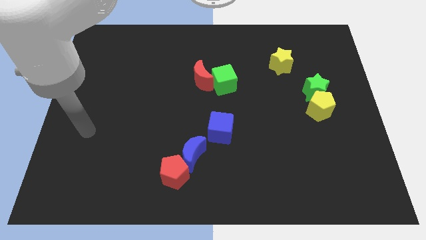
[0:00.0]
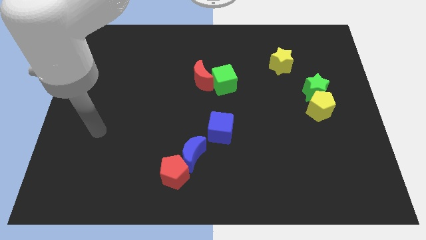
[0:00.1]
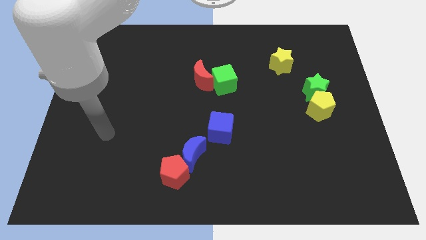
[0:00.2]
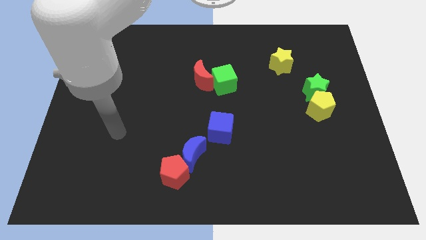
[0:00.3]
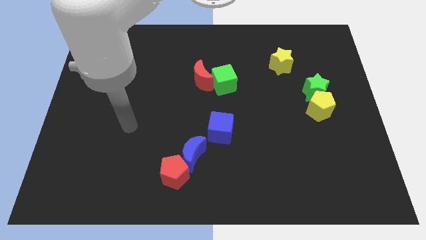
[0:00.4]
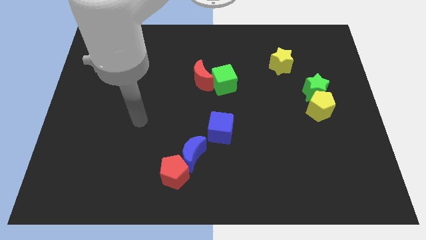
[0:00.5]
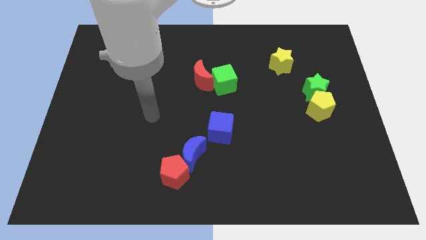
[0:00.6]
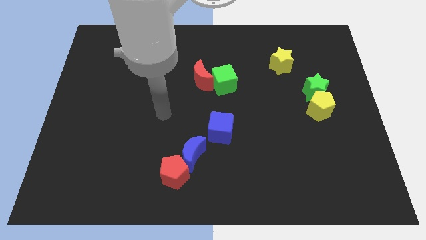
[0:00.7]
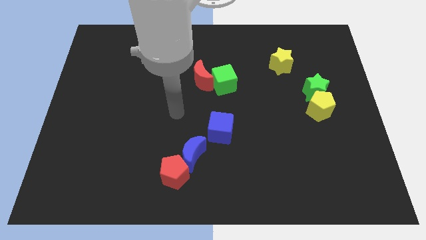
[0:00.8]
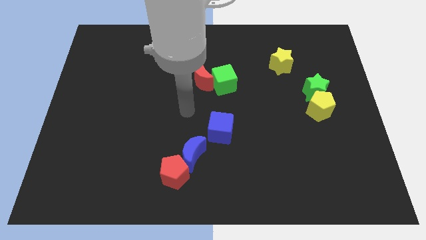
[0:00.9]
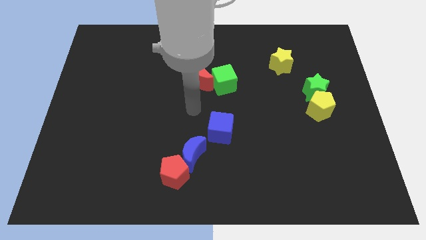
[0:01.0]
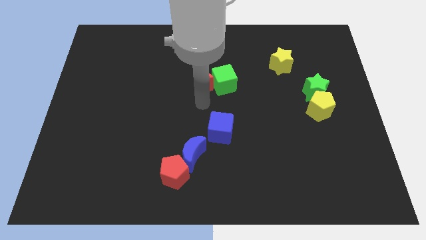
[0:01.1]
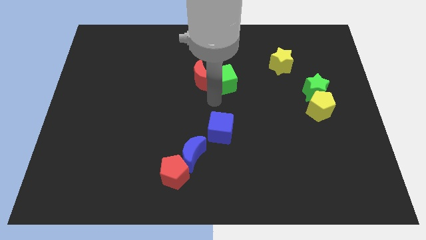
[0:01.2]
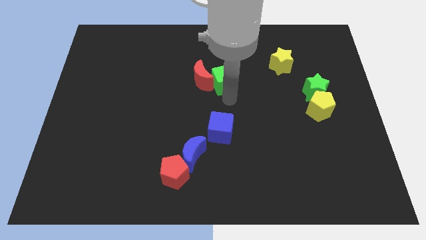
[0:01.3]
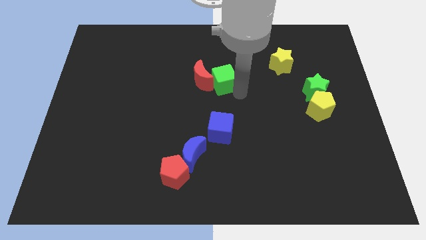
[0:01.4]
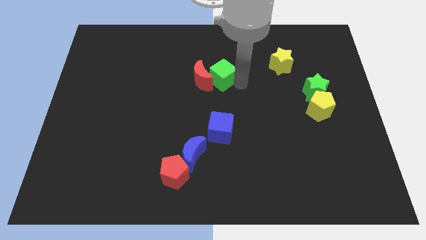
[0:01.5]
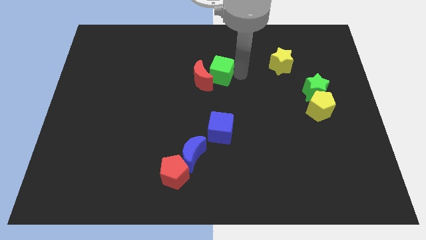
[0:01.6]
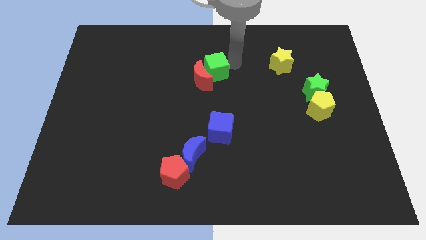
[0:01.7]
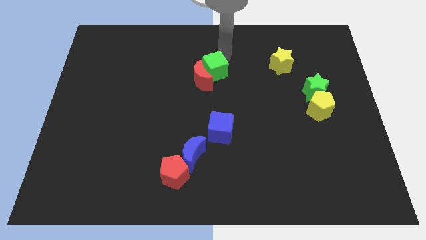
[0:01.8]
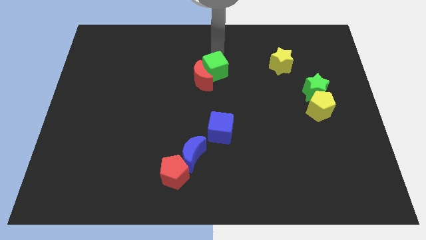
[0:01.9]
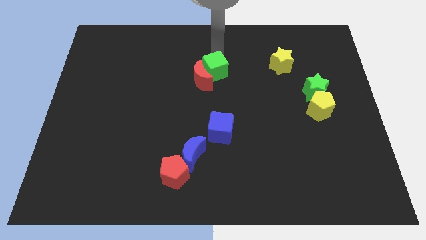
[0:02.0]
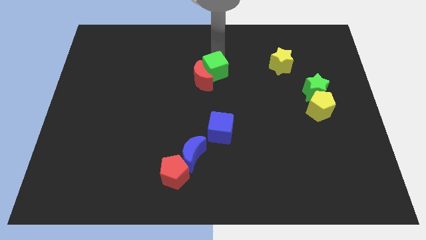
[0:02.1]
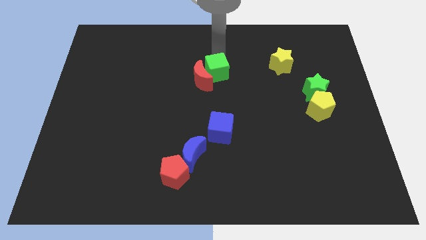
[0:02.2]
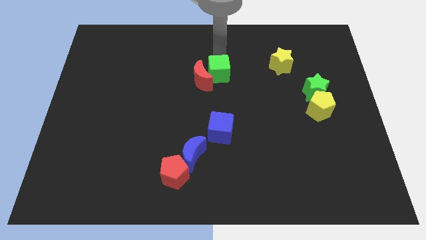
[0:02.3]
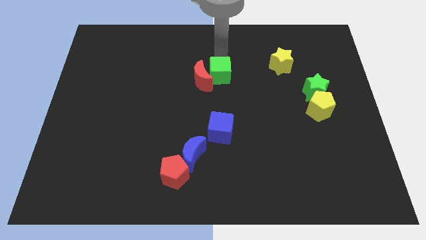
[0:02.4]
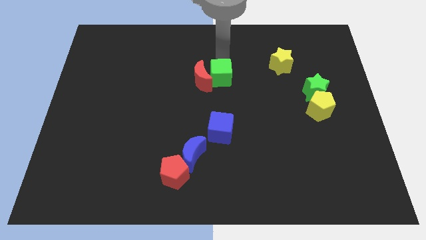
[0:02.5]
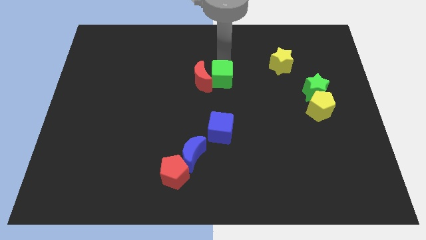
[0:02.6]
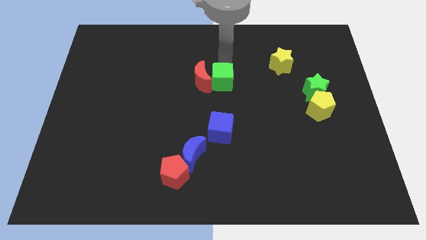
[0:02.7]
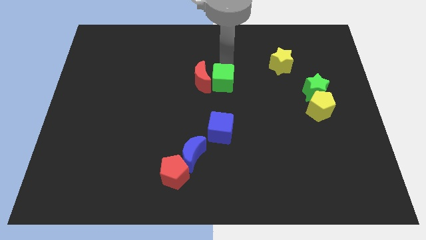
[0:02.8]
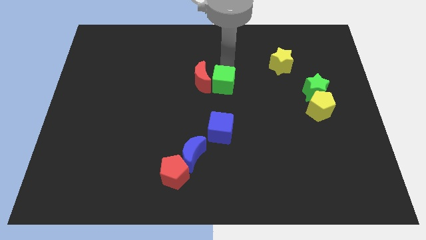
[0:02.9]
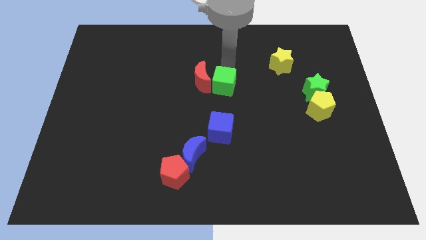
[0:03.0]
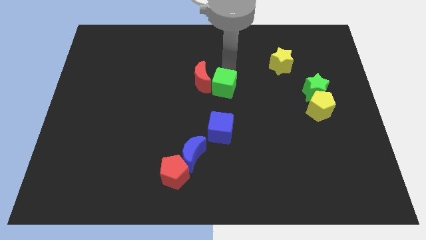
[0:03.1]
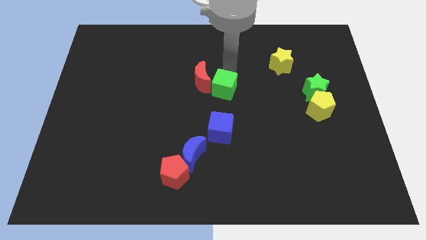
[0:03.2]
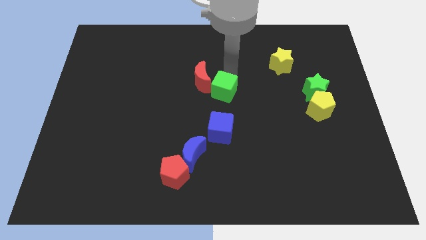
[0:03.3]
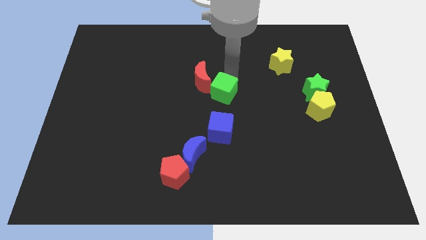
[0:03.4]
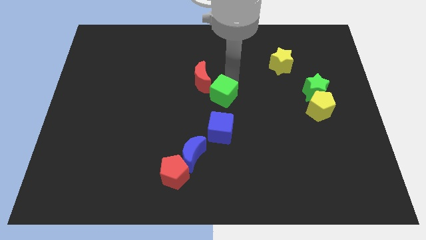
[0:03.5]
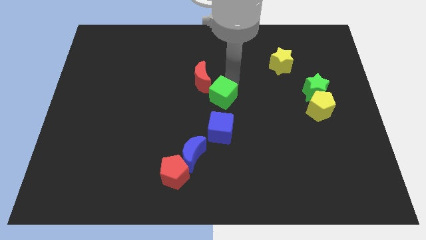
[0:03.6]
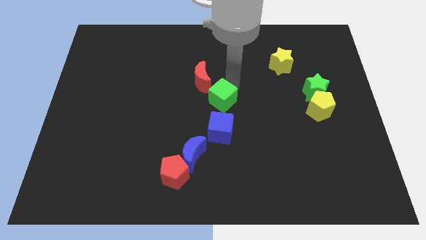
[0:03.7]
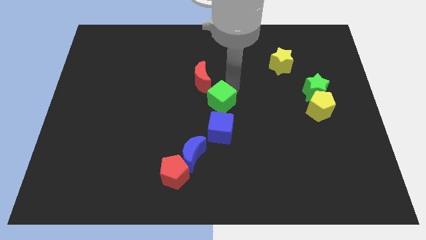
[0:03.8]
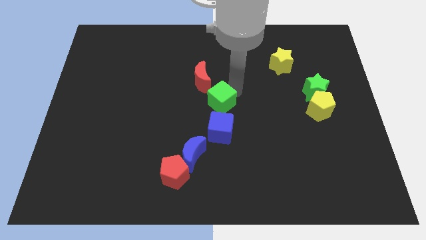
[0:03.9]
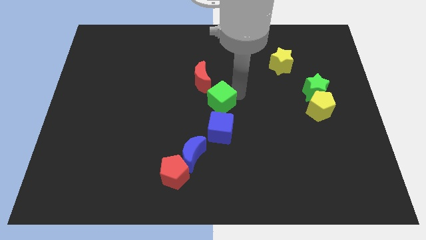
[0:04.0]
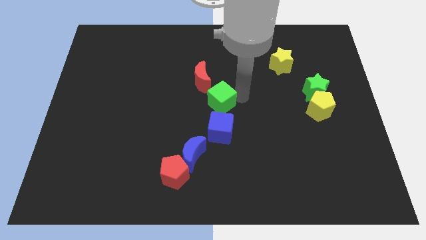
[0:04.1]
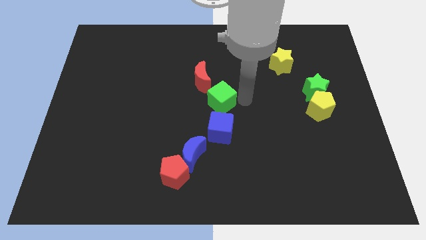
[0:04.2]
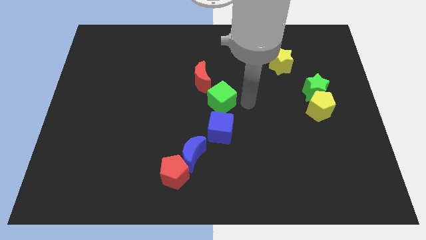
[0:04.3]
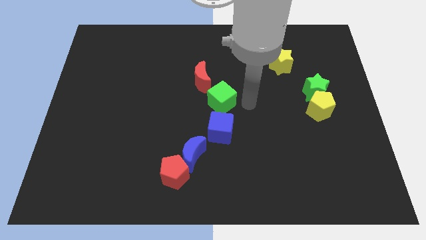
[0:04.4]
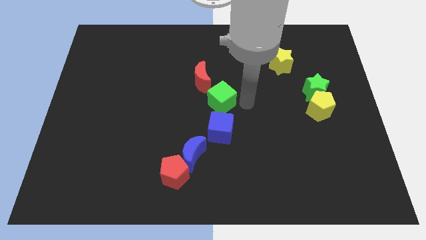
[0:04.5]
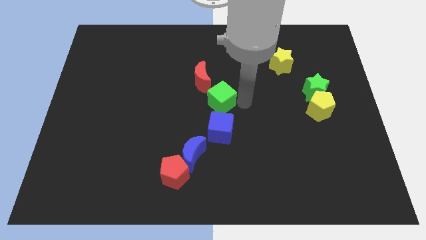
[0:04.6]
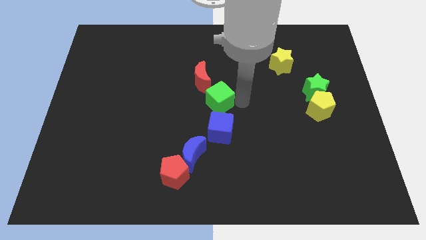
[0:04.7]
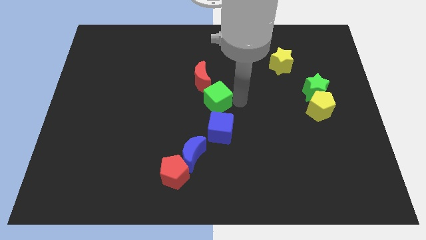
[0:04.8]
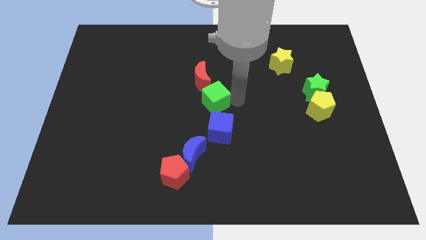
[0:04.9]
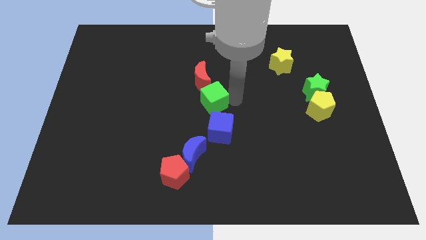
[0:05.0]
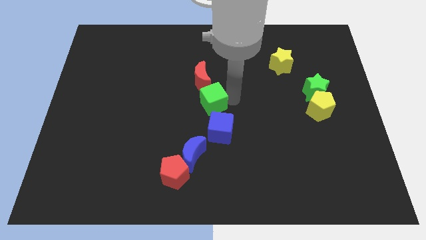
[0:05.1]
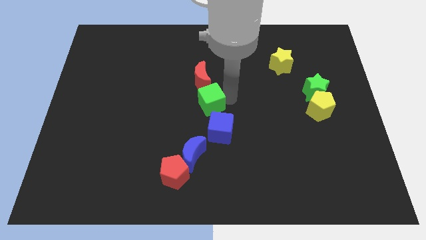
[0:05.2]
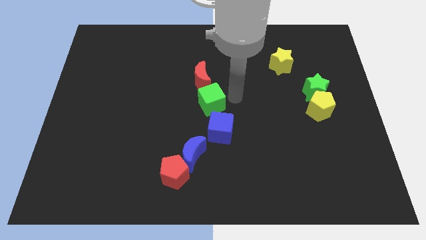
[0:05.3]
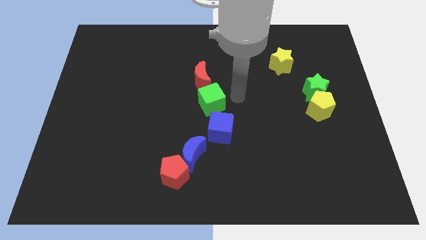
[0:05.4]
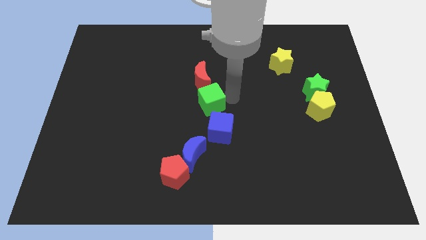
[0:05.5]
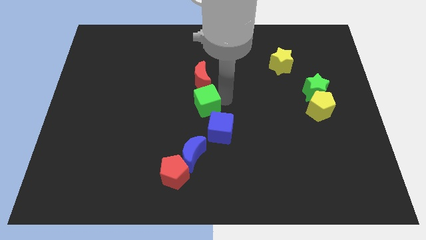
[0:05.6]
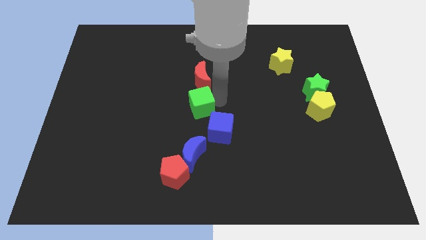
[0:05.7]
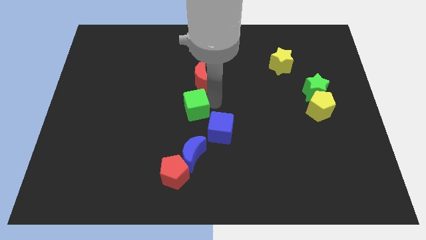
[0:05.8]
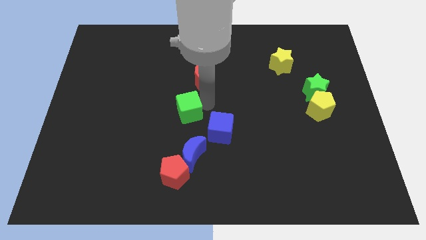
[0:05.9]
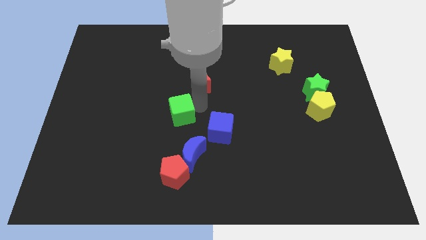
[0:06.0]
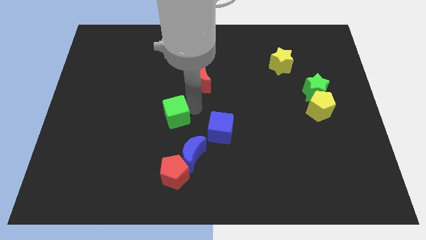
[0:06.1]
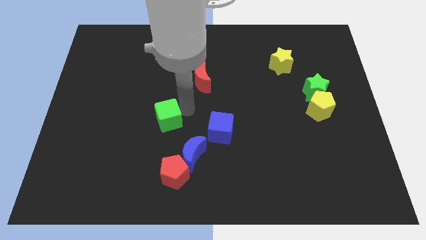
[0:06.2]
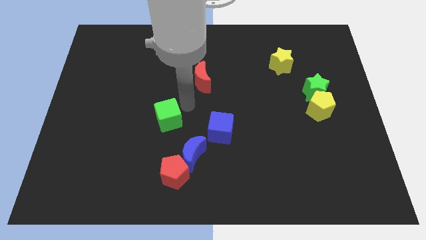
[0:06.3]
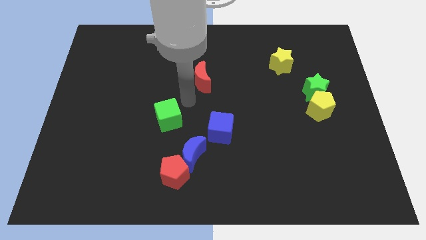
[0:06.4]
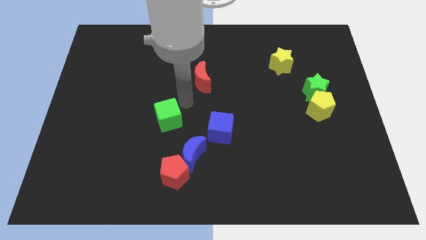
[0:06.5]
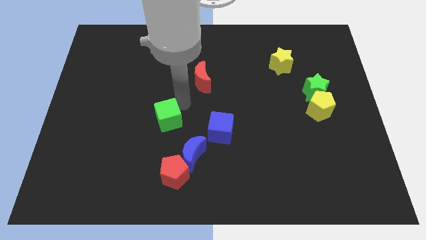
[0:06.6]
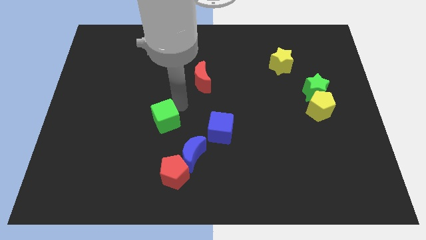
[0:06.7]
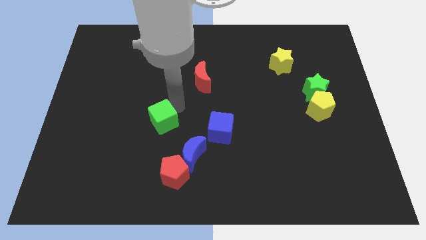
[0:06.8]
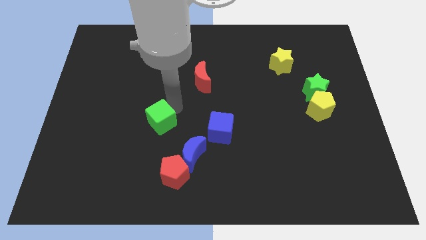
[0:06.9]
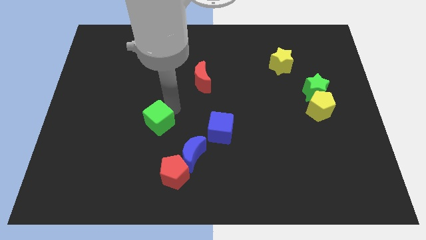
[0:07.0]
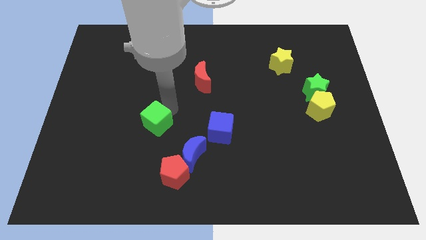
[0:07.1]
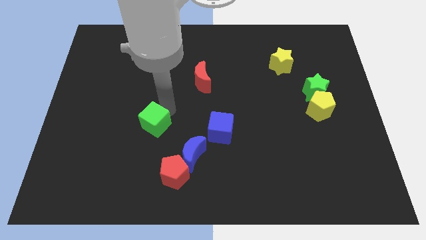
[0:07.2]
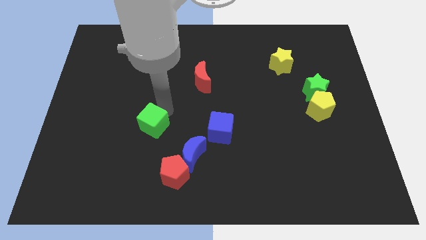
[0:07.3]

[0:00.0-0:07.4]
push the green cube down and left

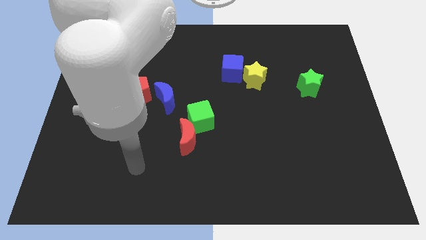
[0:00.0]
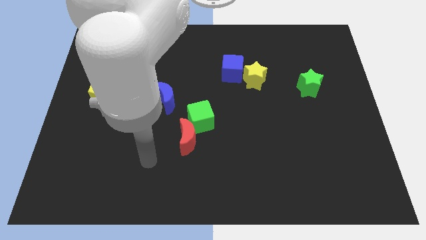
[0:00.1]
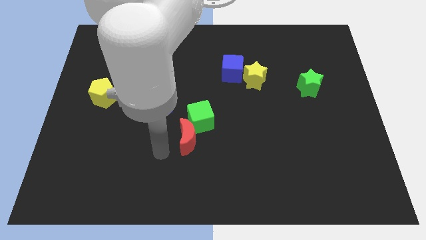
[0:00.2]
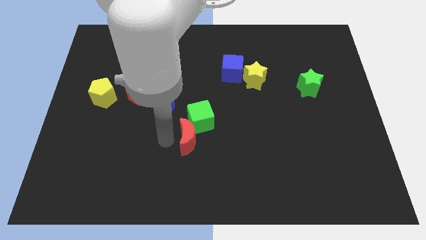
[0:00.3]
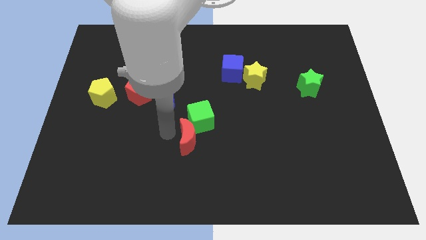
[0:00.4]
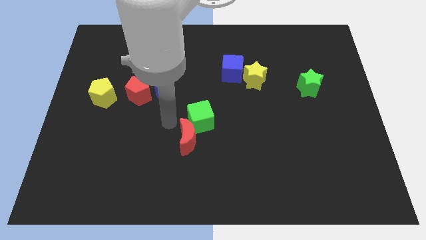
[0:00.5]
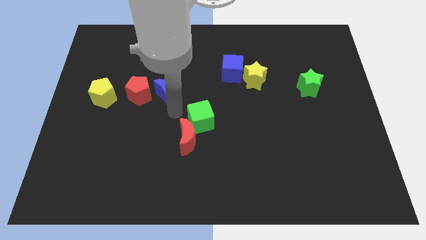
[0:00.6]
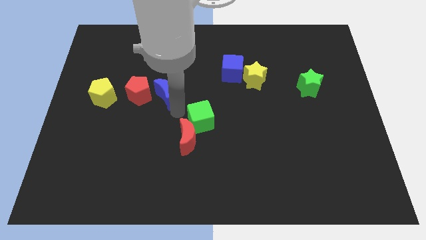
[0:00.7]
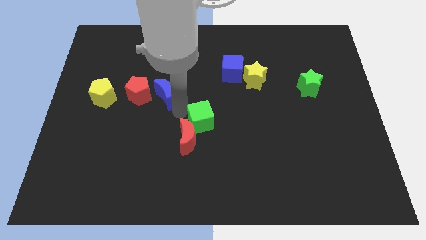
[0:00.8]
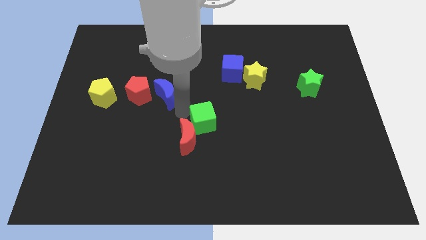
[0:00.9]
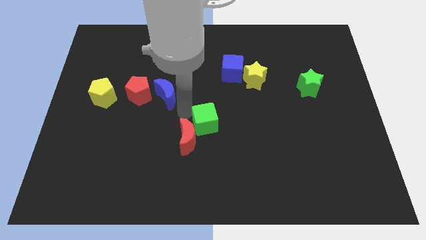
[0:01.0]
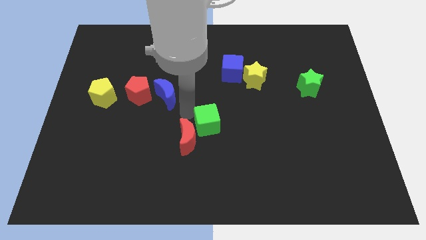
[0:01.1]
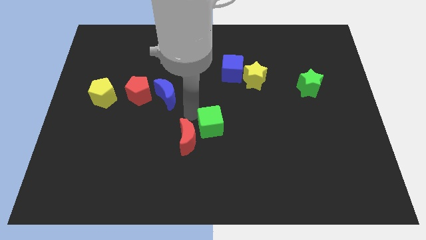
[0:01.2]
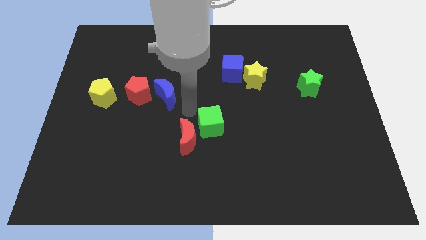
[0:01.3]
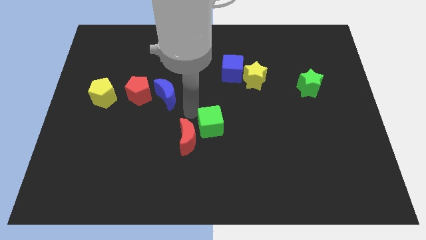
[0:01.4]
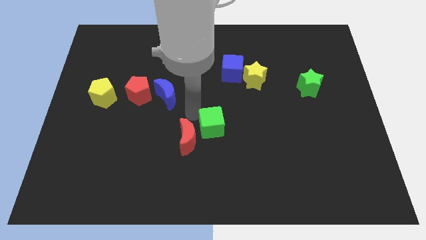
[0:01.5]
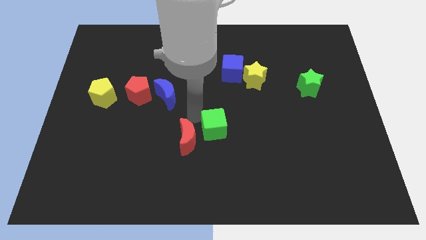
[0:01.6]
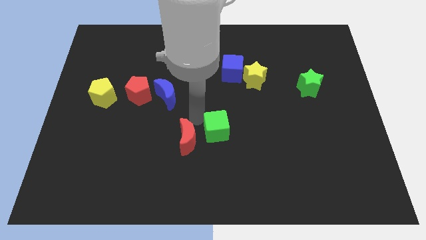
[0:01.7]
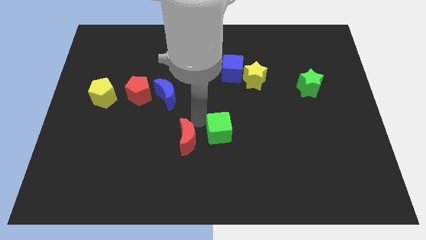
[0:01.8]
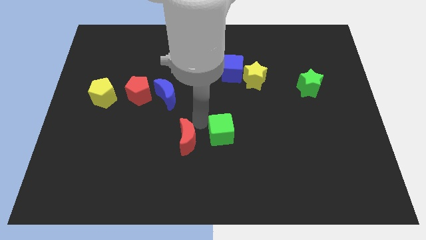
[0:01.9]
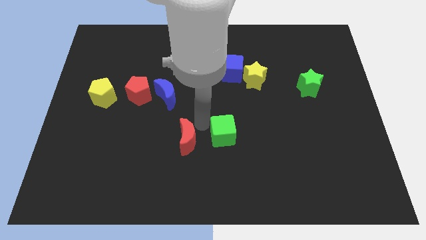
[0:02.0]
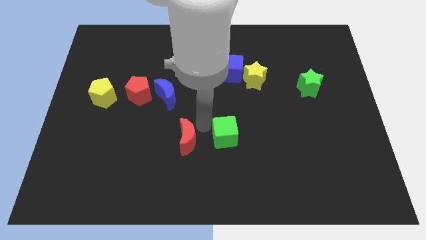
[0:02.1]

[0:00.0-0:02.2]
slightly slide the green cube down and to the right diagonally
